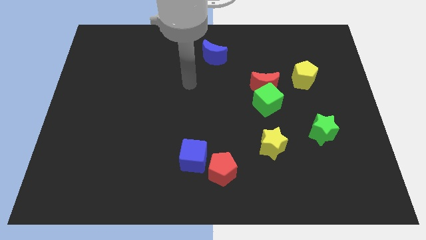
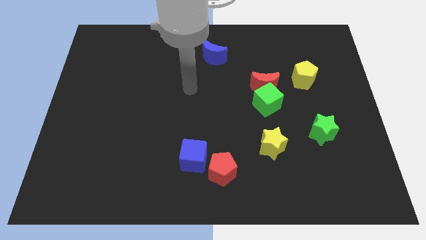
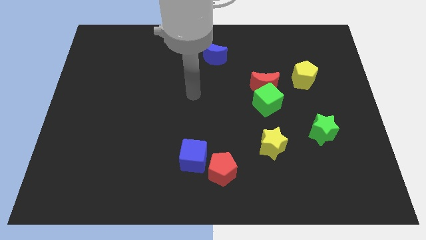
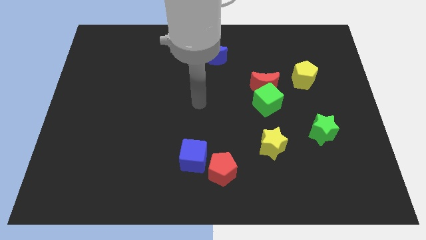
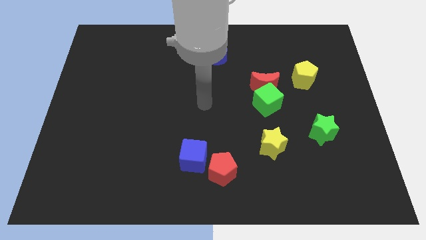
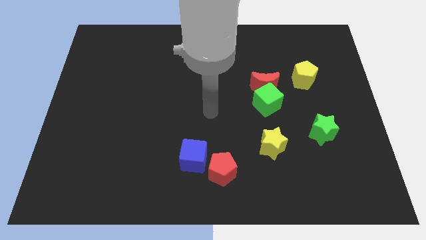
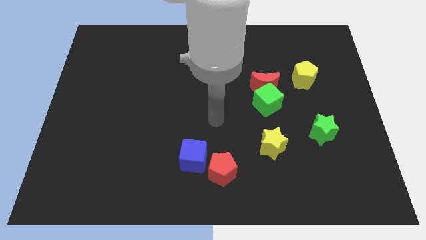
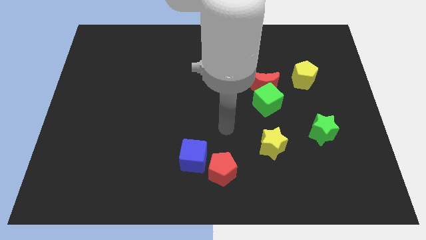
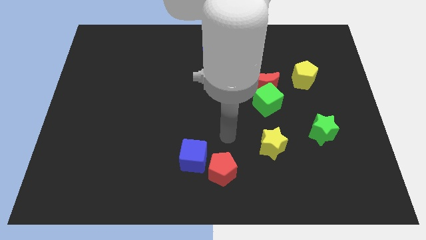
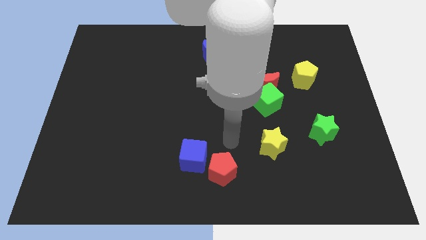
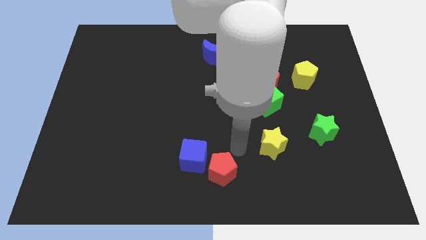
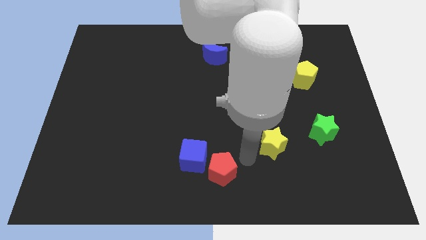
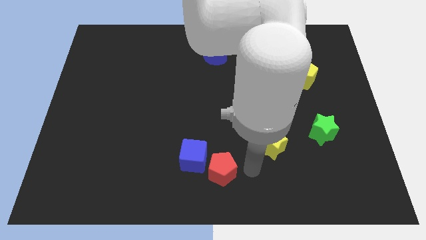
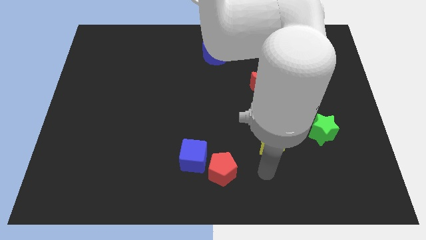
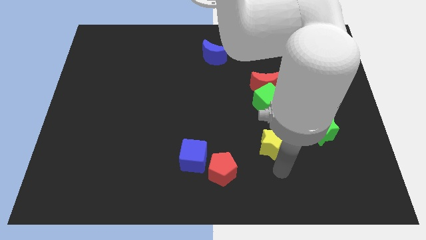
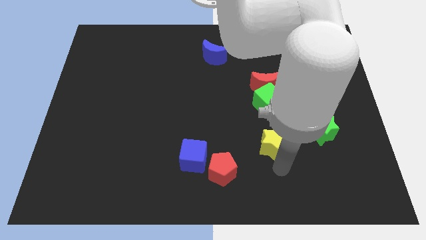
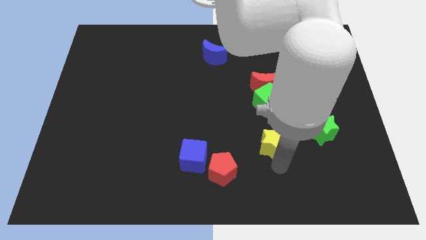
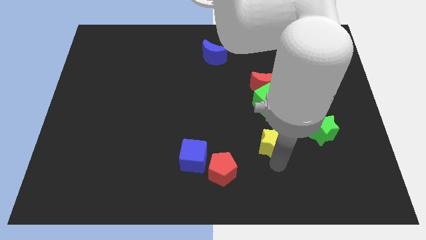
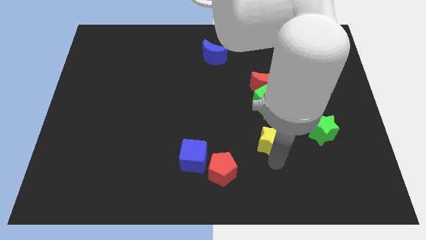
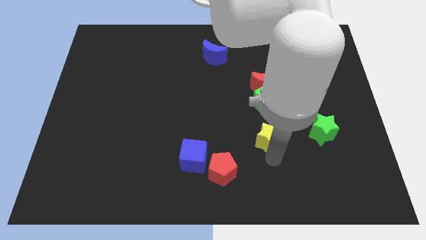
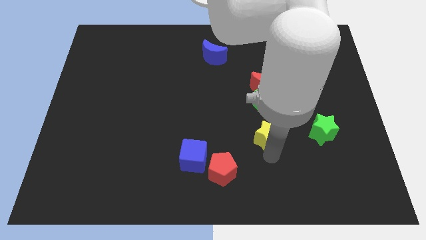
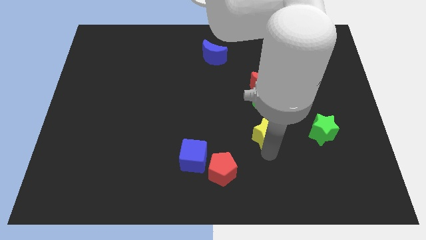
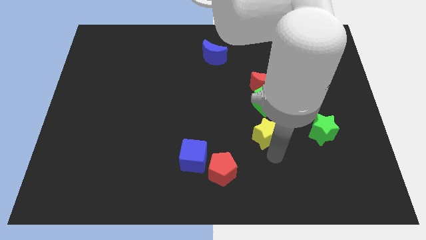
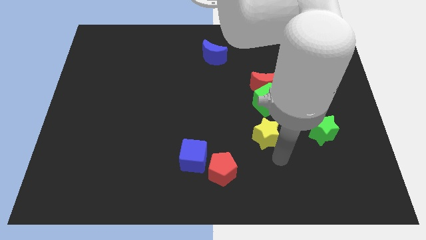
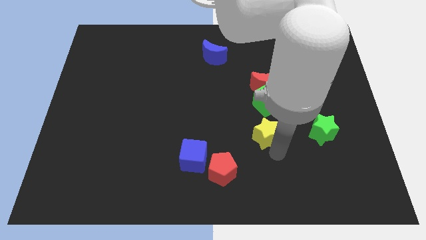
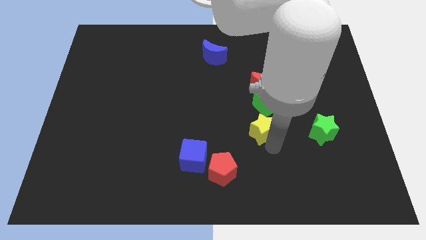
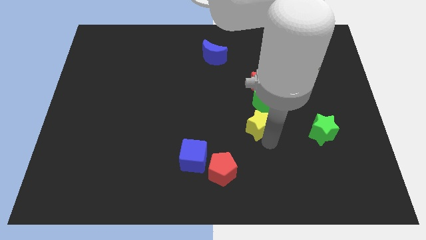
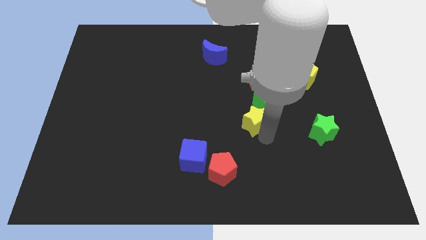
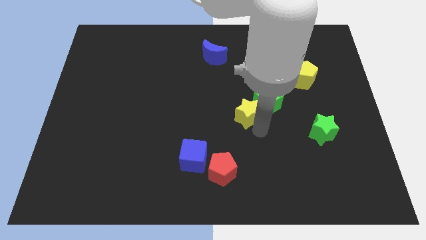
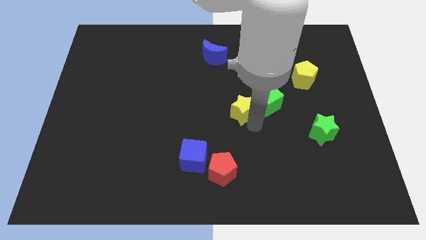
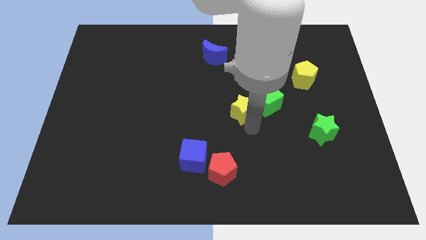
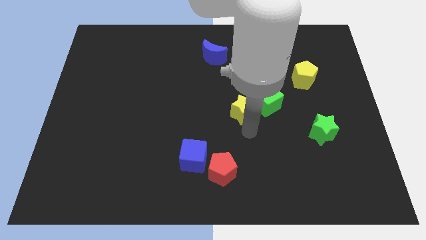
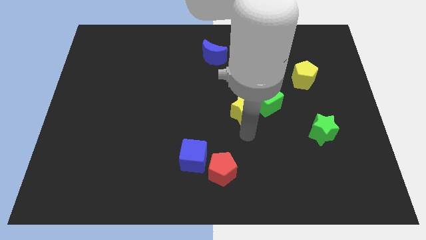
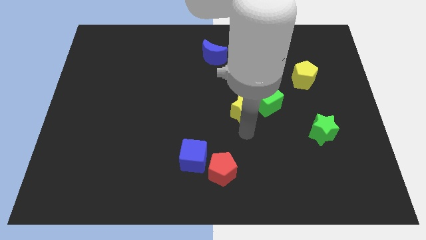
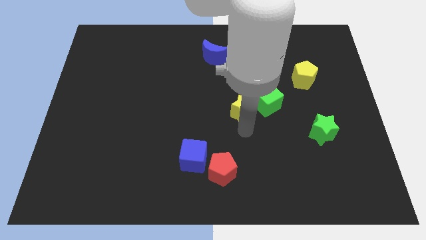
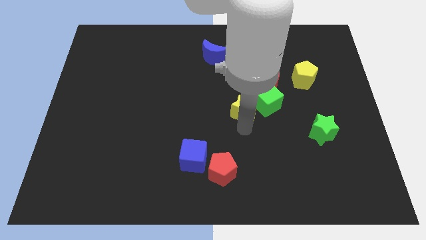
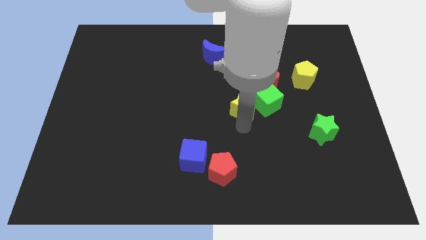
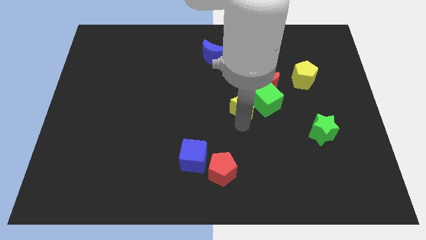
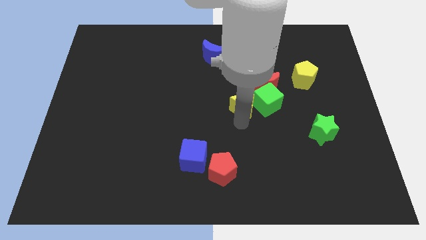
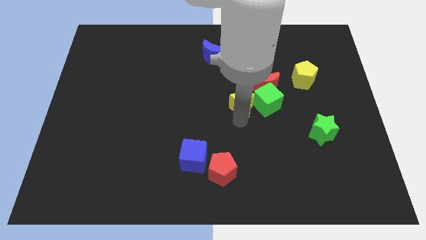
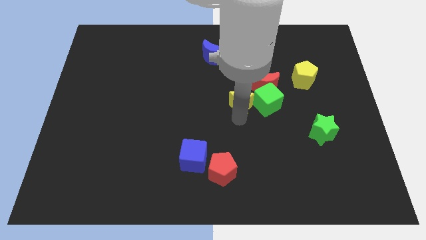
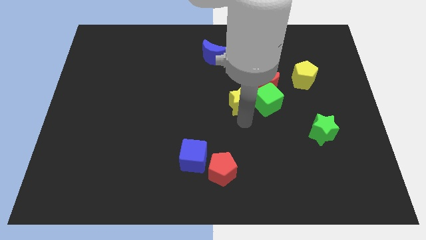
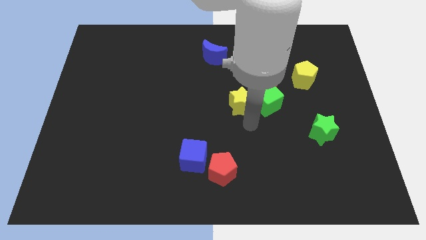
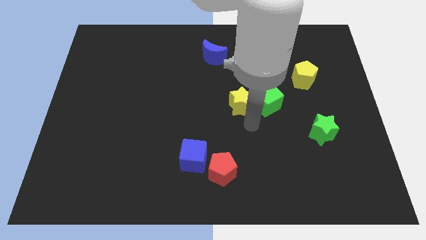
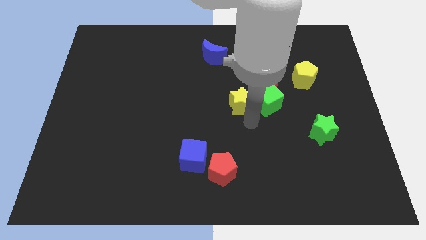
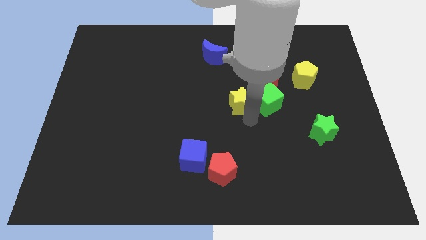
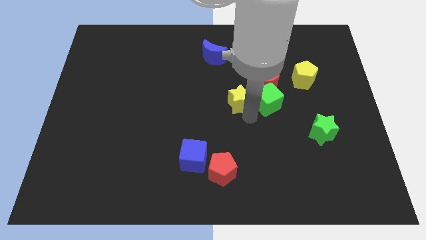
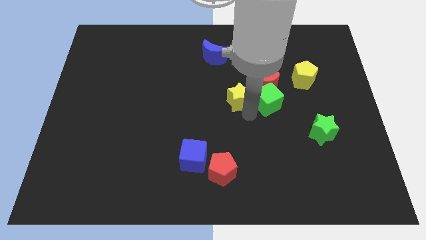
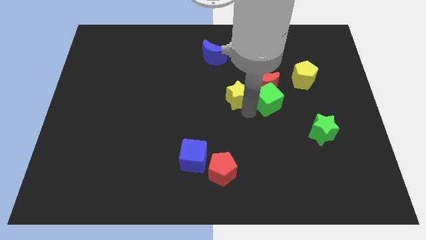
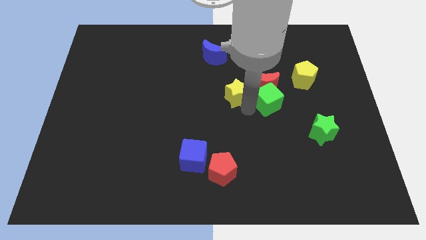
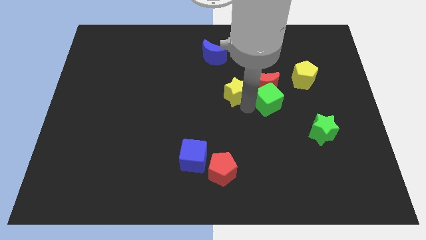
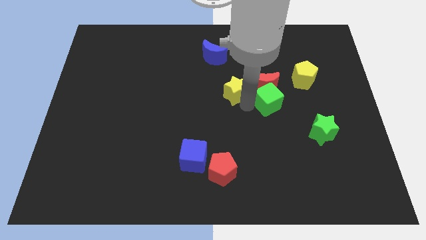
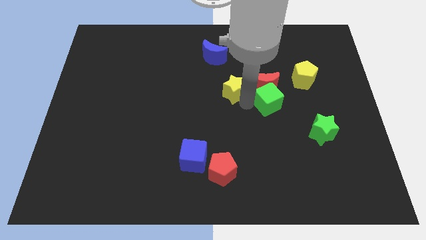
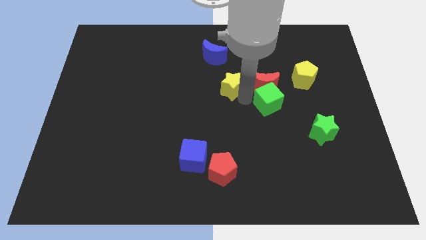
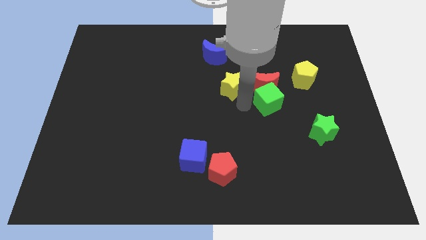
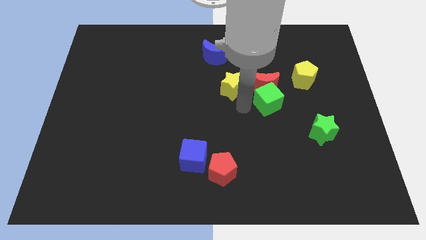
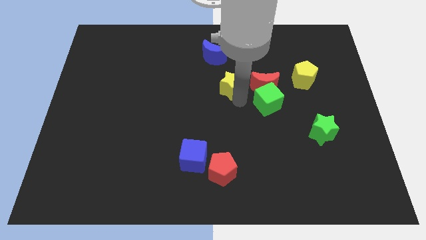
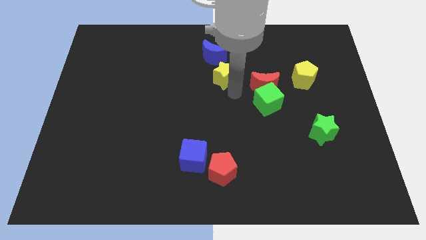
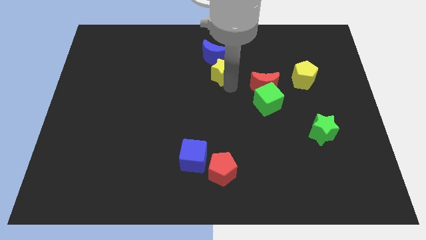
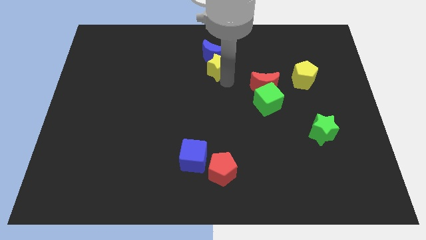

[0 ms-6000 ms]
move the yellow star to the blue moon
